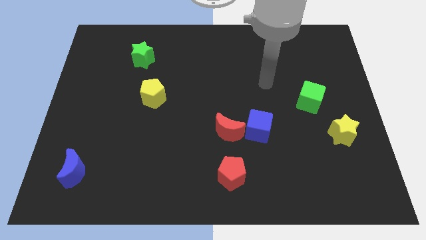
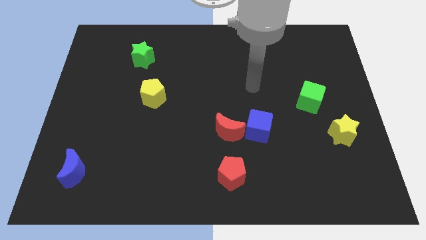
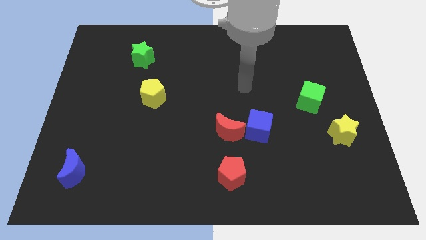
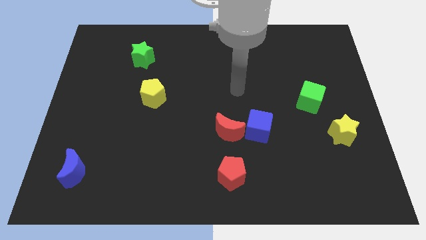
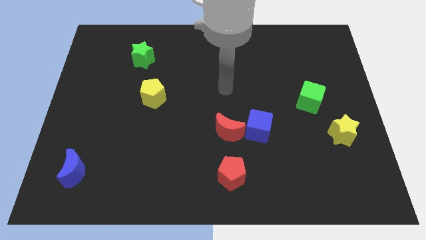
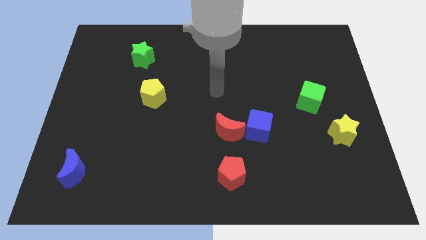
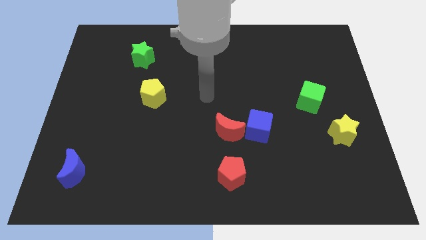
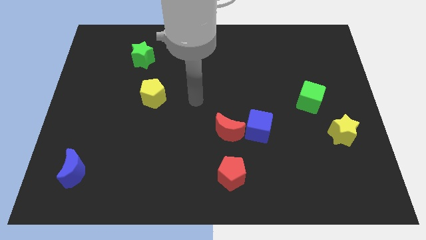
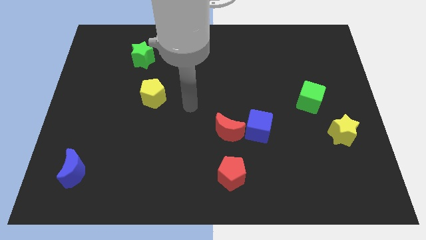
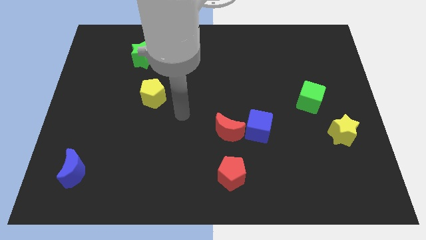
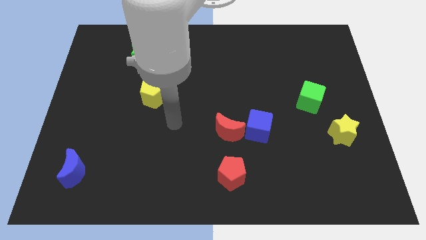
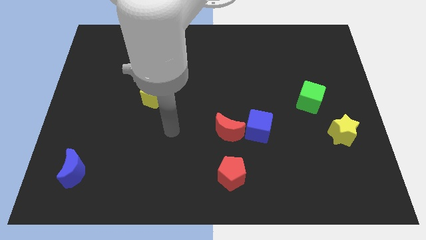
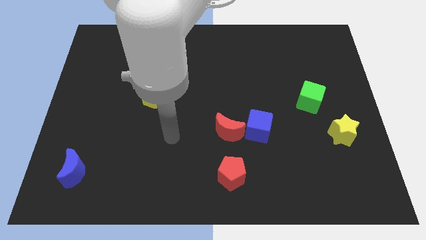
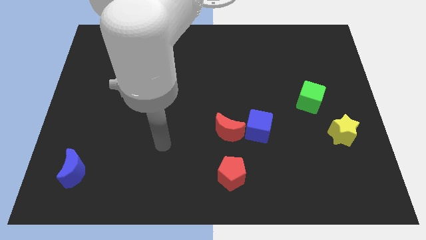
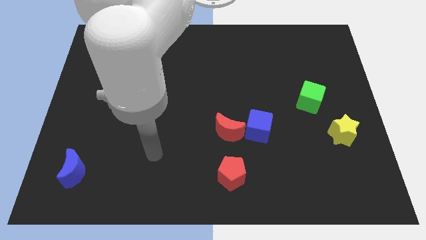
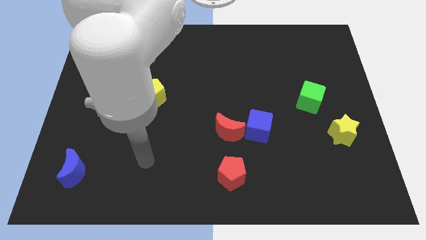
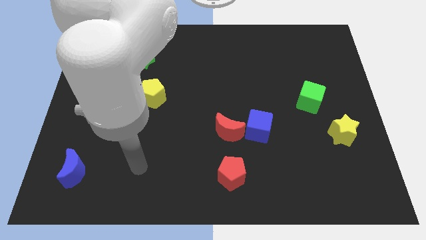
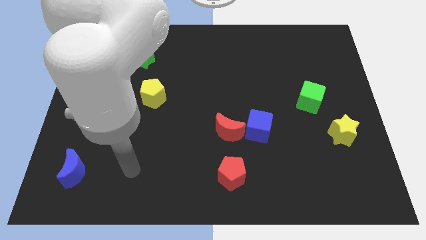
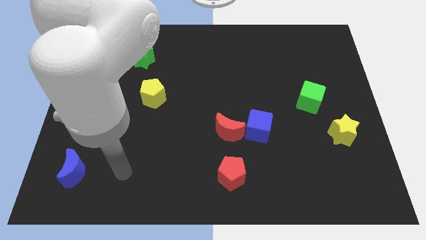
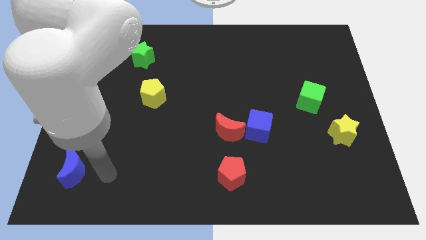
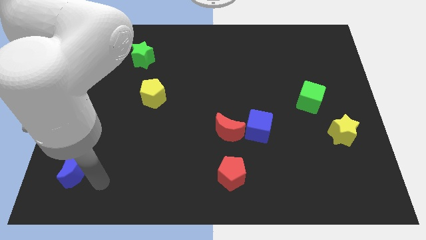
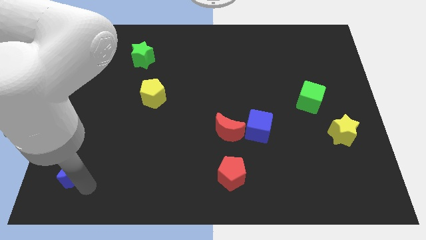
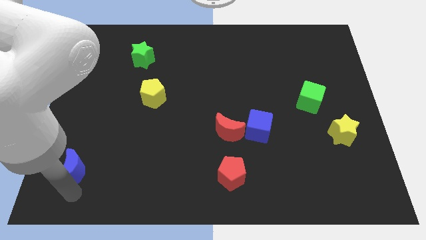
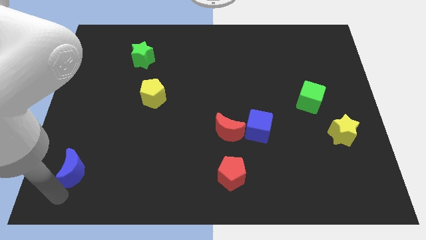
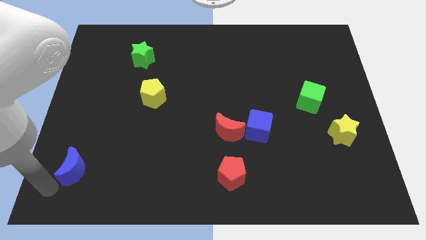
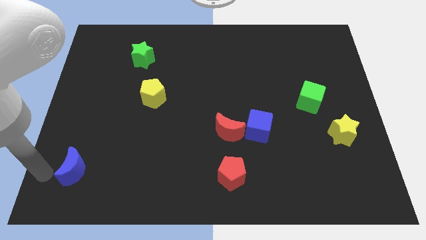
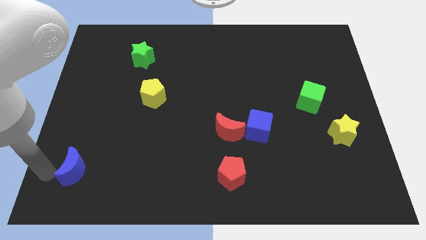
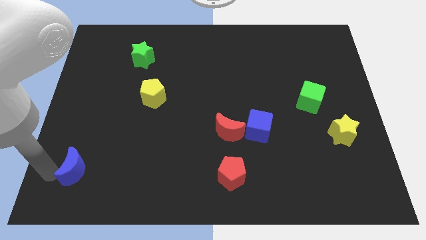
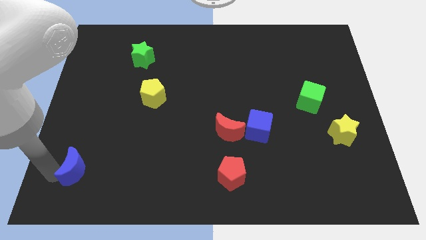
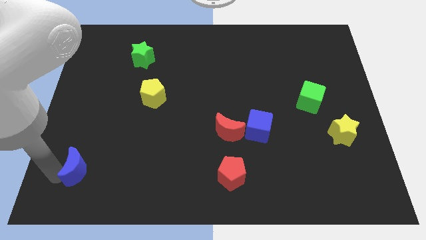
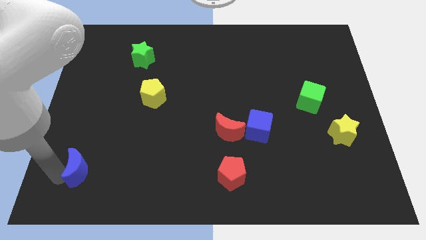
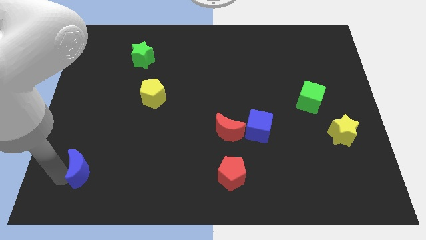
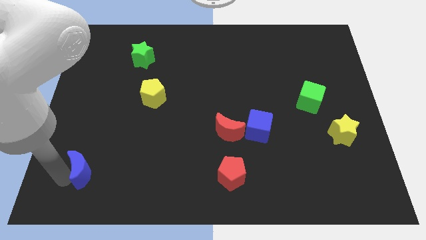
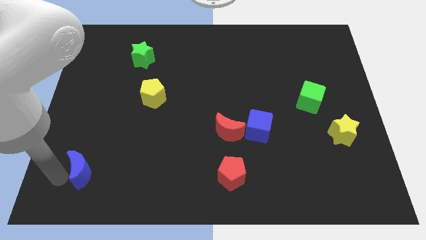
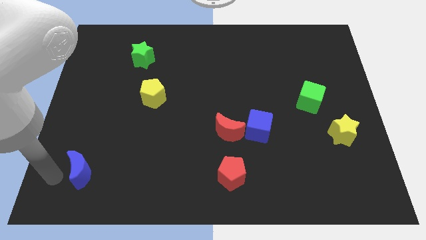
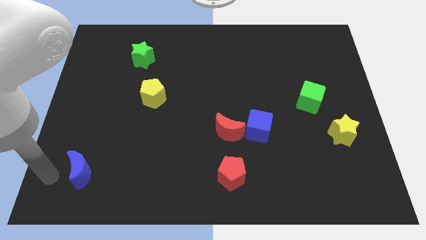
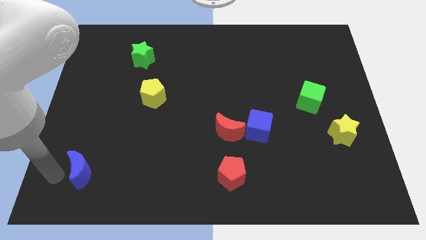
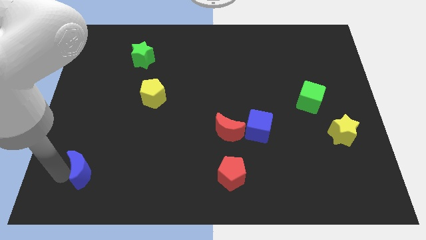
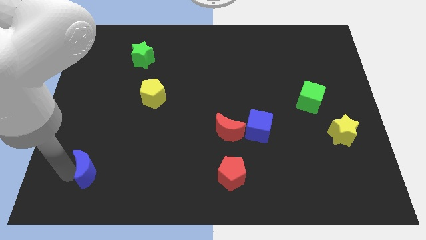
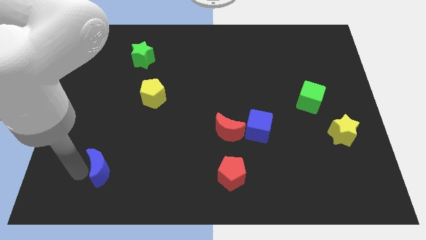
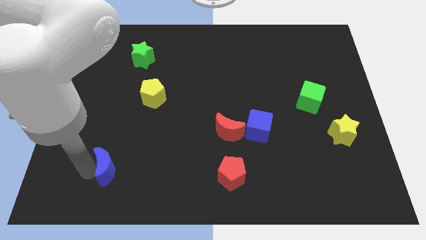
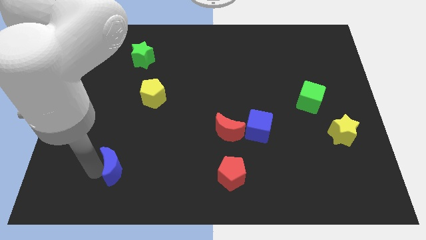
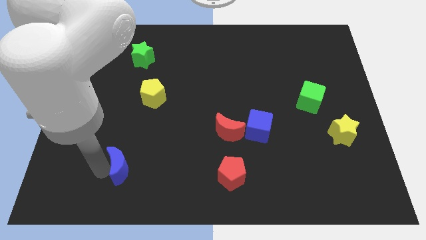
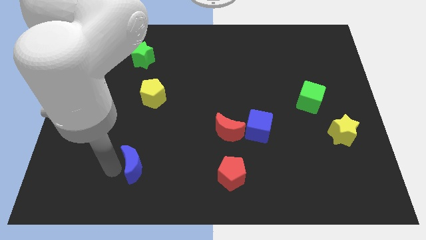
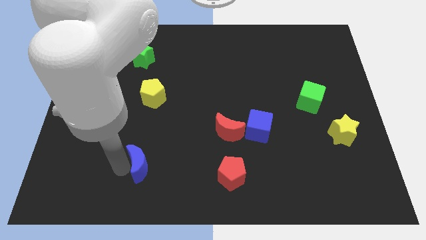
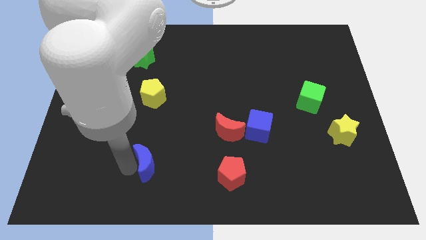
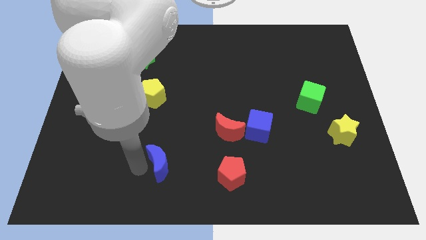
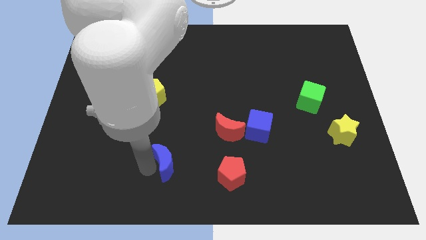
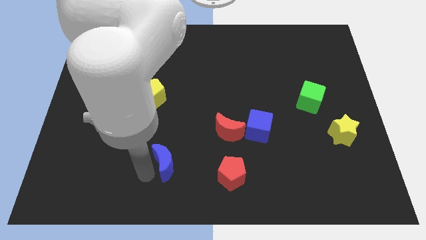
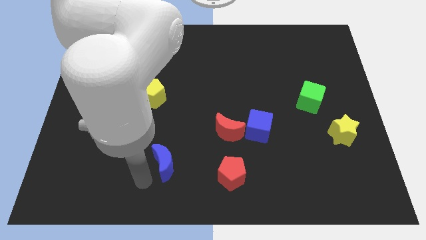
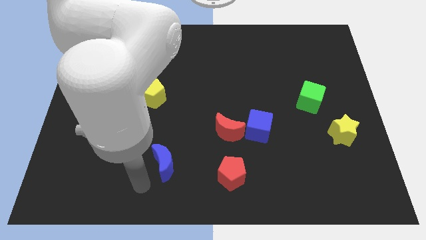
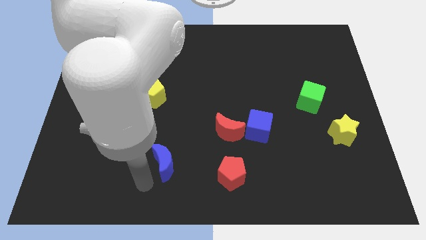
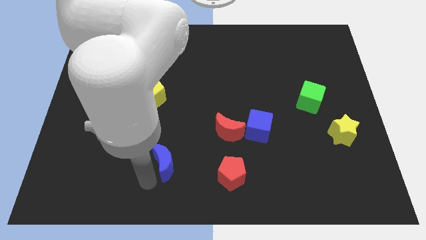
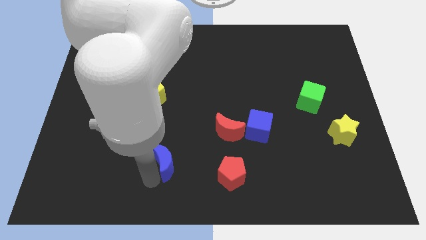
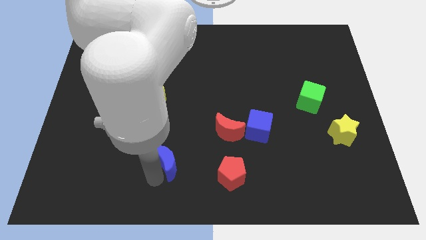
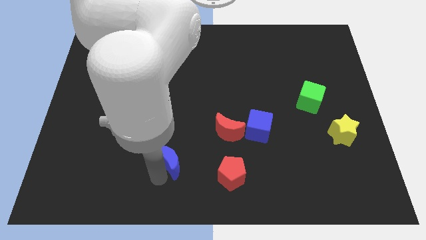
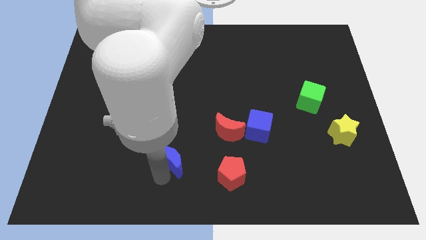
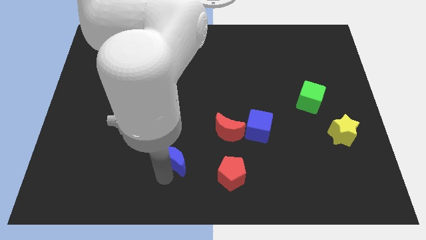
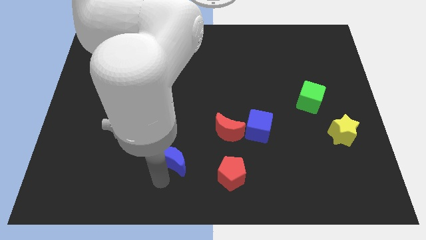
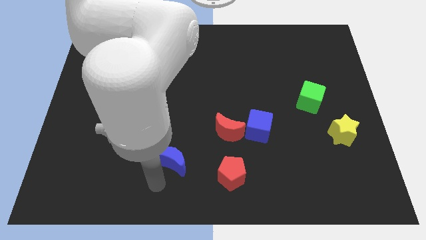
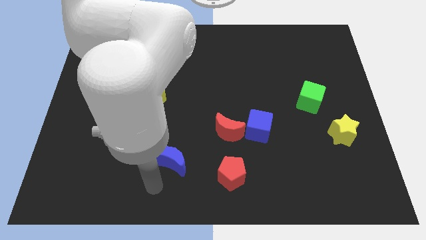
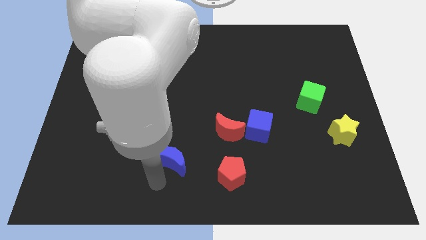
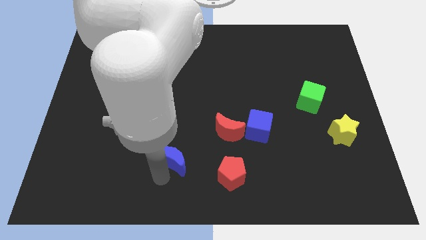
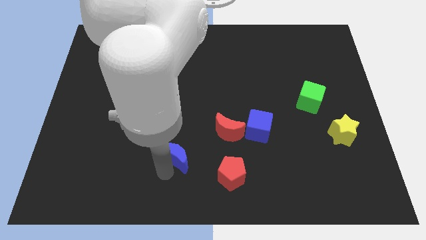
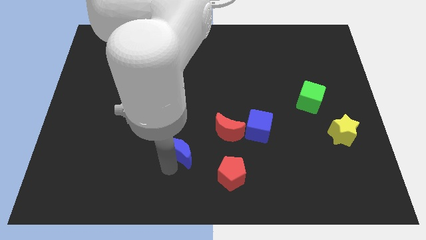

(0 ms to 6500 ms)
move the blue moon to the bottom left of the red moon
